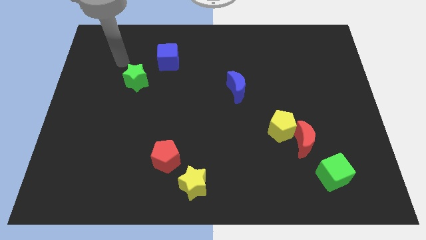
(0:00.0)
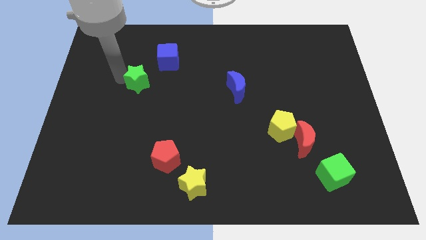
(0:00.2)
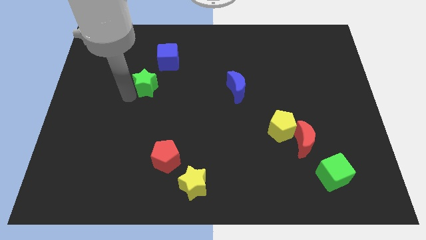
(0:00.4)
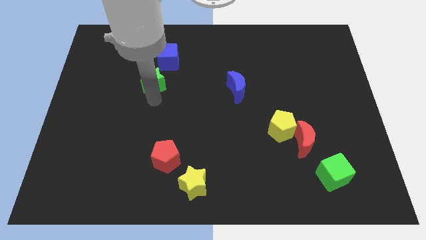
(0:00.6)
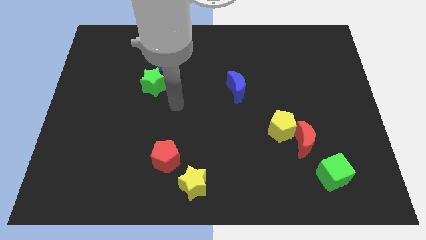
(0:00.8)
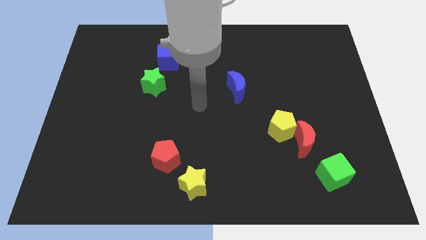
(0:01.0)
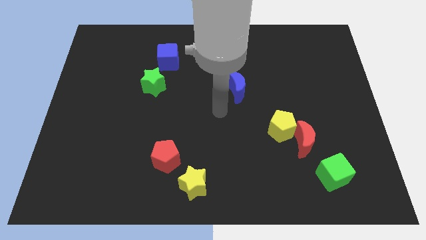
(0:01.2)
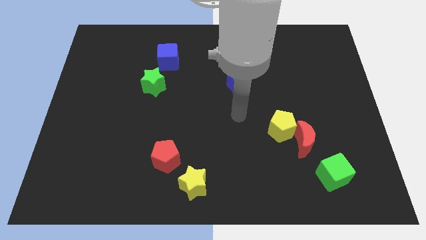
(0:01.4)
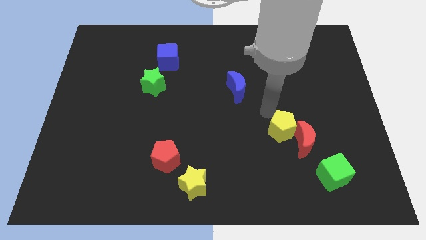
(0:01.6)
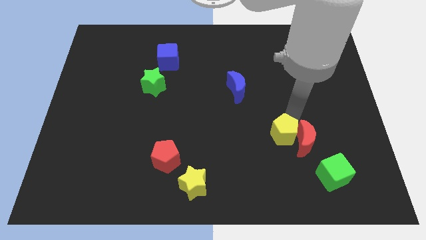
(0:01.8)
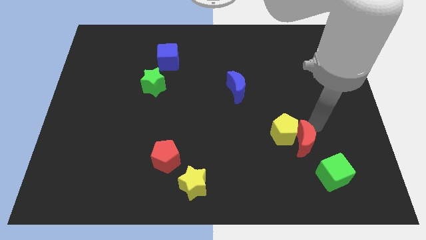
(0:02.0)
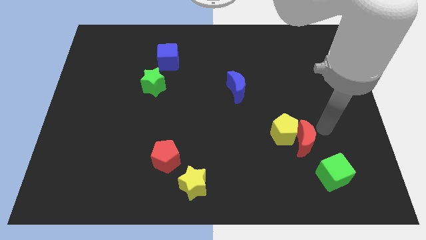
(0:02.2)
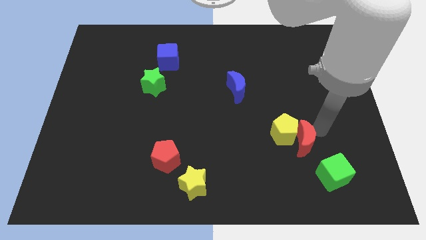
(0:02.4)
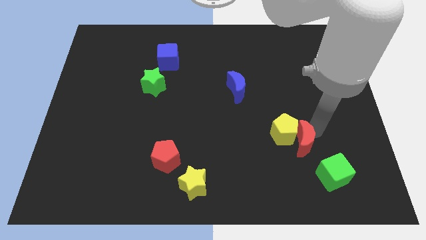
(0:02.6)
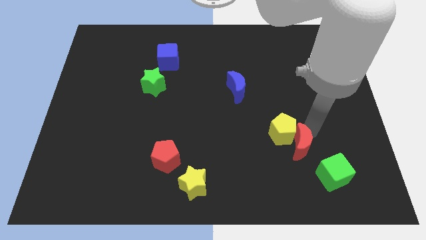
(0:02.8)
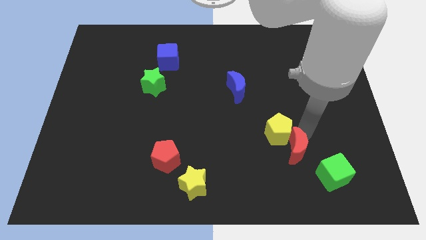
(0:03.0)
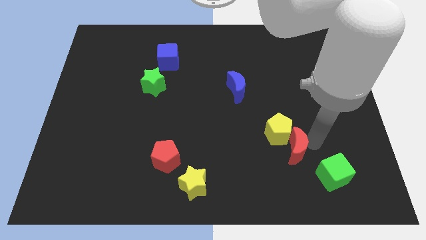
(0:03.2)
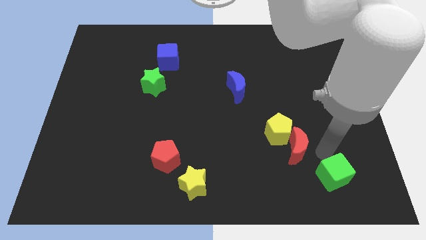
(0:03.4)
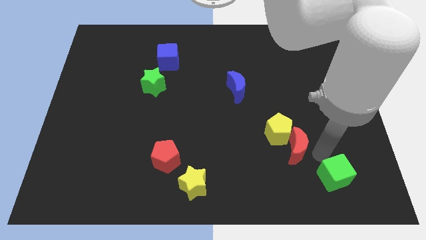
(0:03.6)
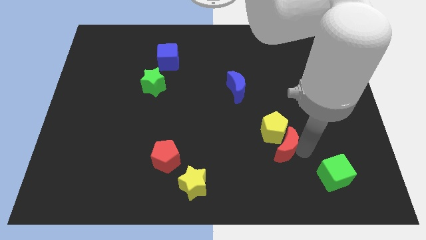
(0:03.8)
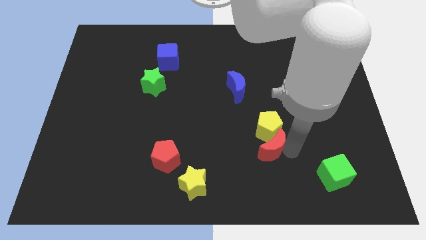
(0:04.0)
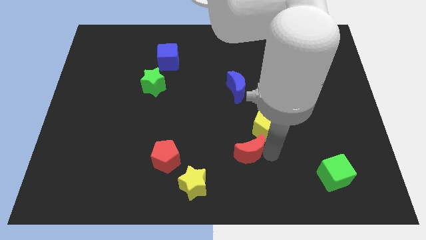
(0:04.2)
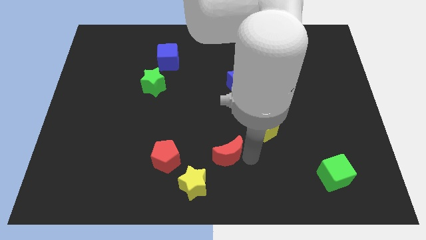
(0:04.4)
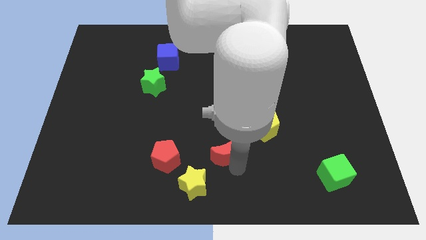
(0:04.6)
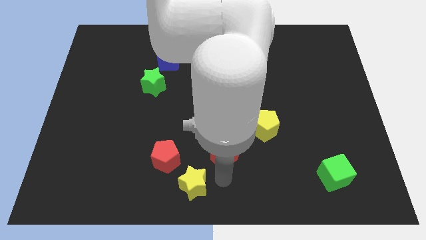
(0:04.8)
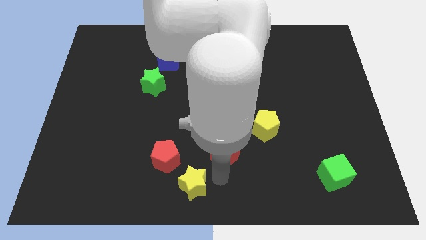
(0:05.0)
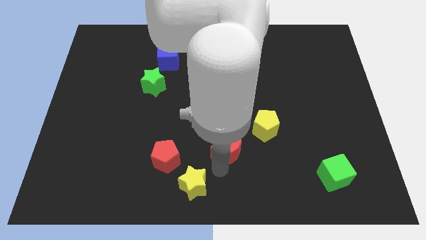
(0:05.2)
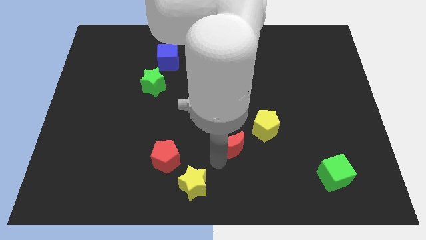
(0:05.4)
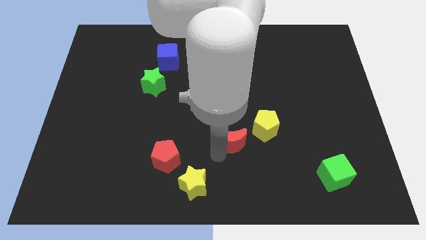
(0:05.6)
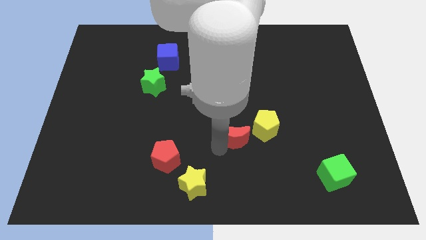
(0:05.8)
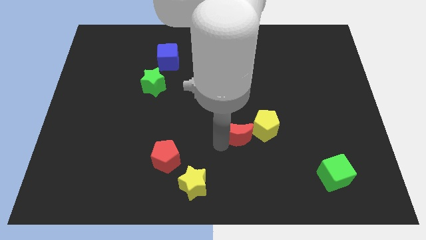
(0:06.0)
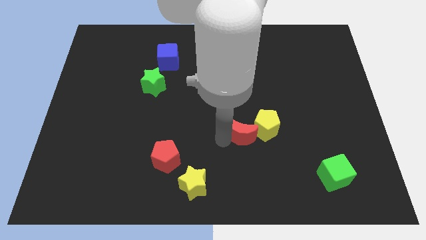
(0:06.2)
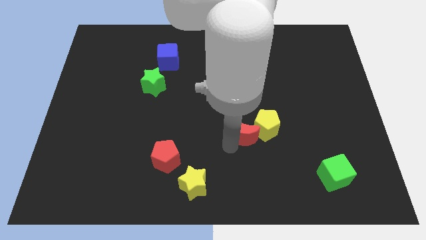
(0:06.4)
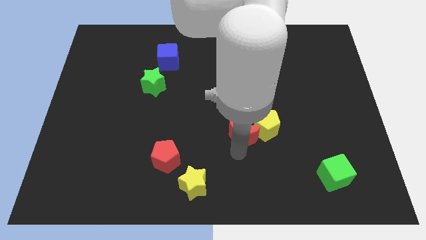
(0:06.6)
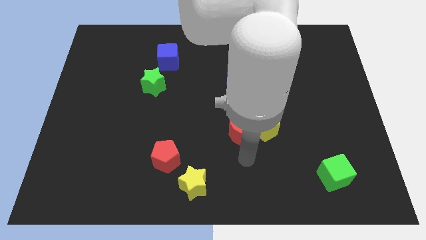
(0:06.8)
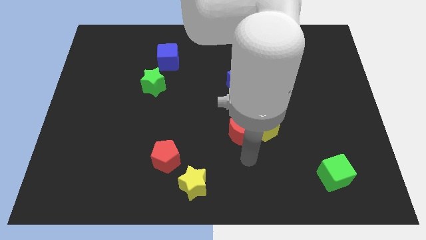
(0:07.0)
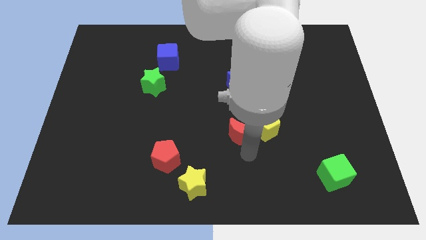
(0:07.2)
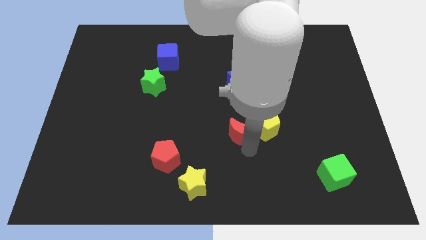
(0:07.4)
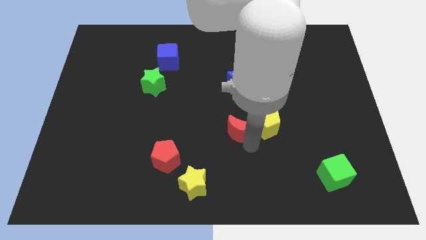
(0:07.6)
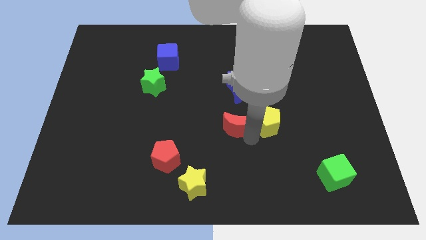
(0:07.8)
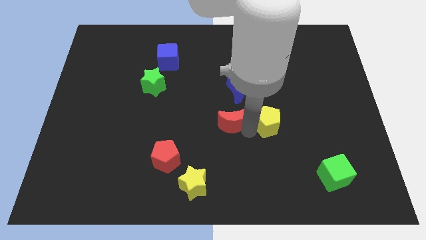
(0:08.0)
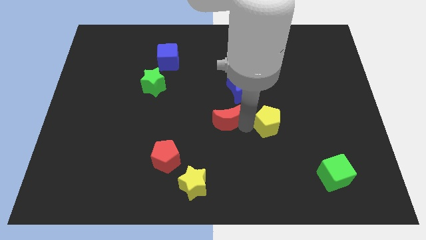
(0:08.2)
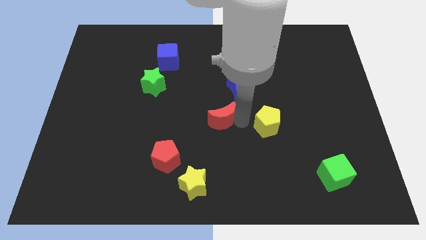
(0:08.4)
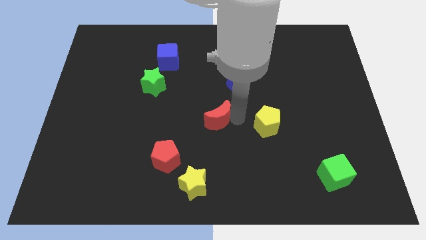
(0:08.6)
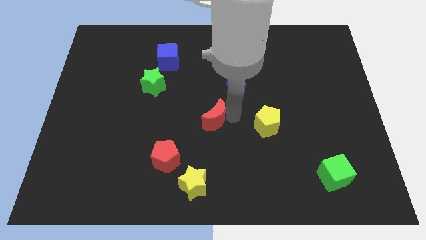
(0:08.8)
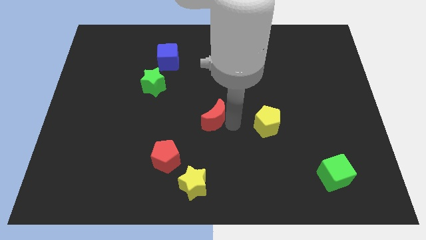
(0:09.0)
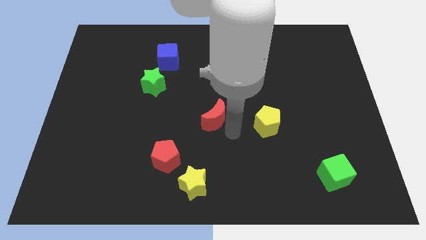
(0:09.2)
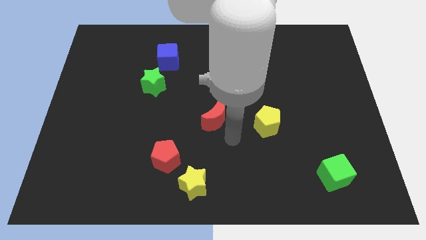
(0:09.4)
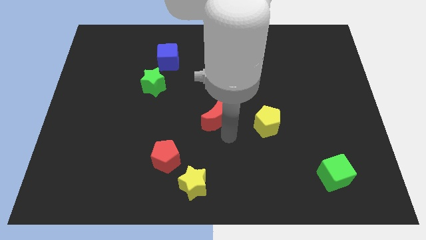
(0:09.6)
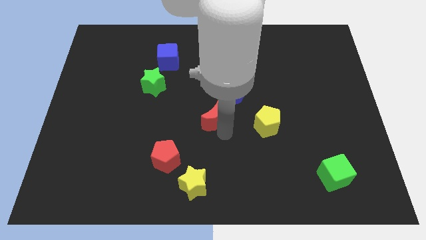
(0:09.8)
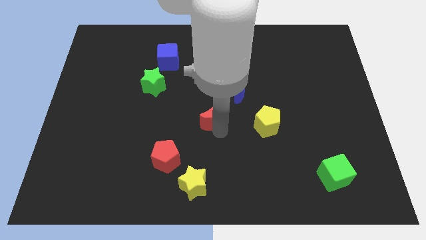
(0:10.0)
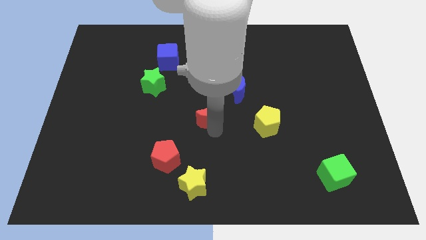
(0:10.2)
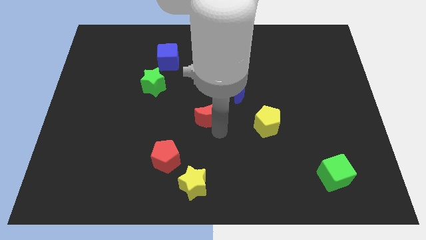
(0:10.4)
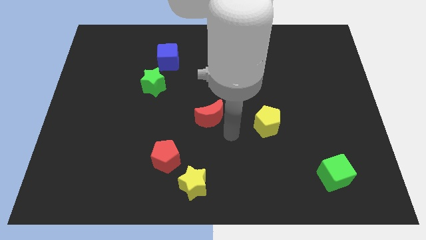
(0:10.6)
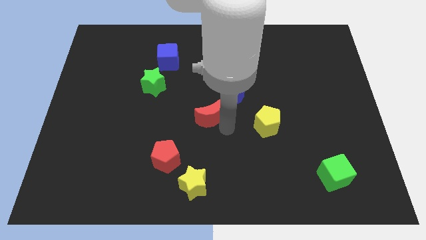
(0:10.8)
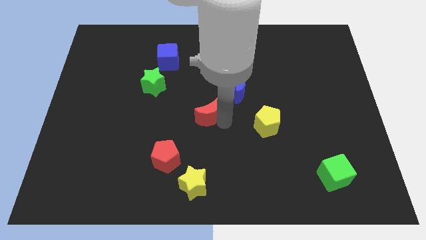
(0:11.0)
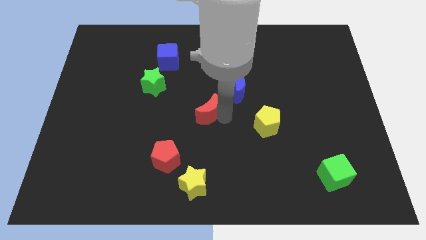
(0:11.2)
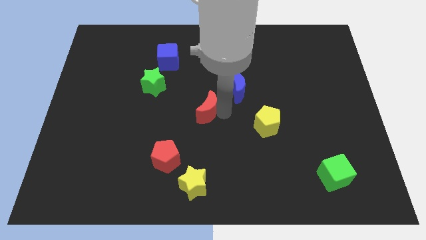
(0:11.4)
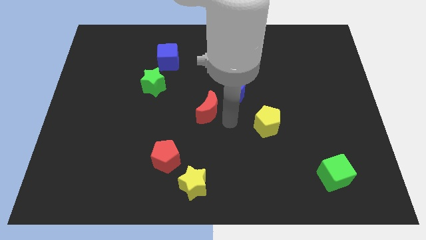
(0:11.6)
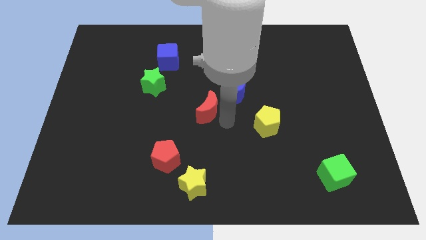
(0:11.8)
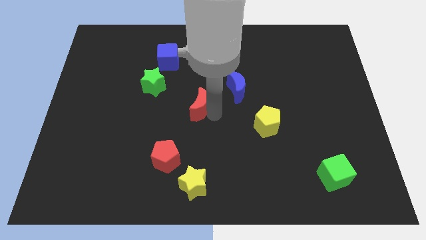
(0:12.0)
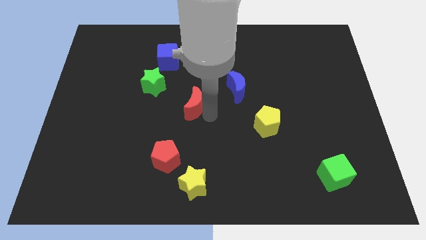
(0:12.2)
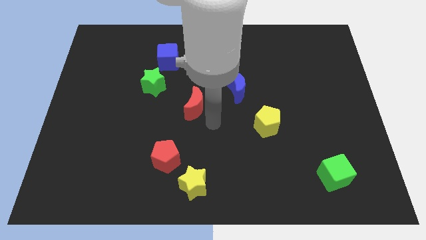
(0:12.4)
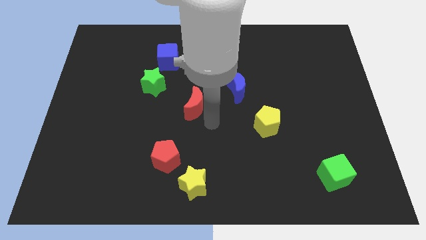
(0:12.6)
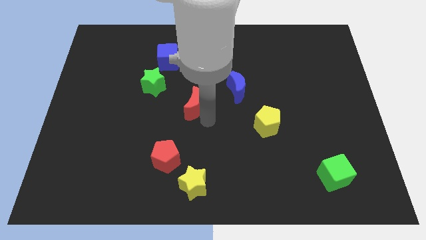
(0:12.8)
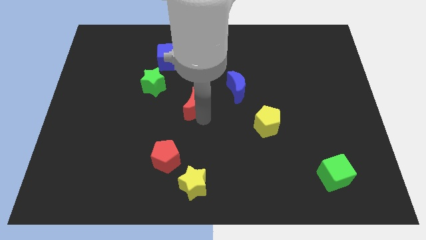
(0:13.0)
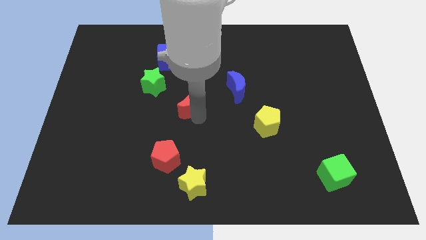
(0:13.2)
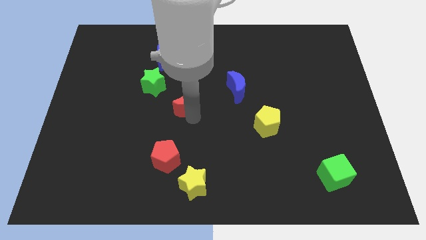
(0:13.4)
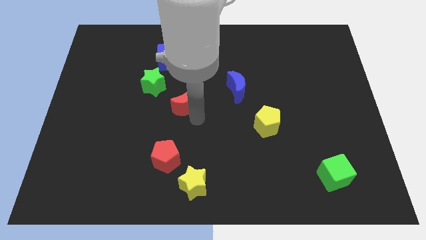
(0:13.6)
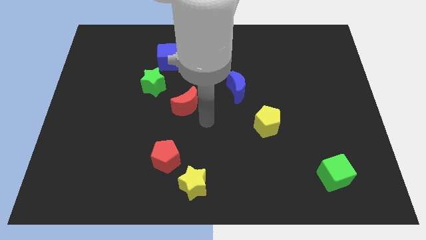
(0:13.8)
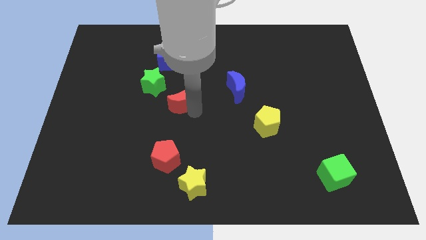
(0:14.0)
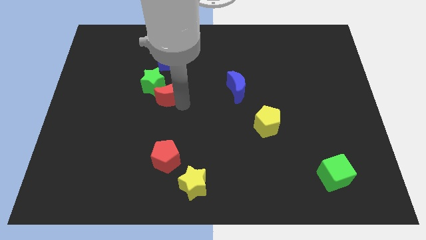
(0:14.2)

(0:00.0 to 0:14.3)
move the red moon next to the green star
